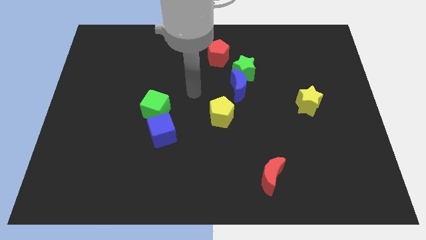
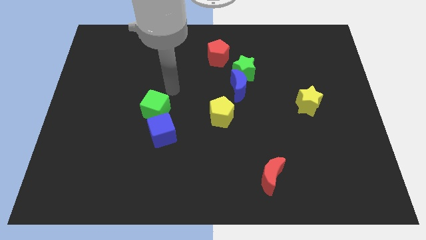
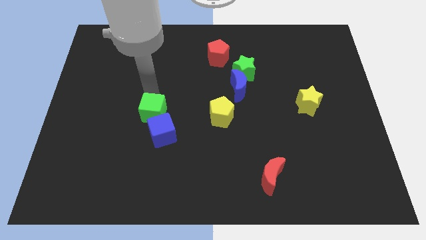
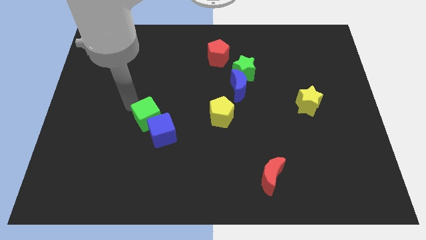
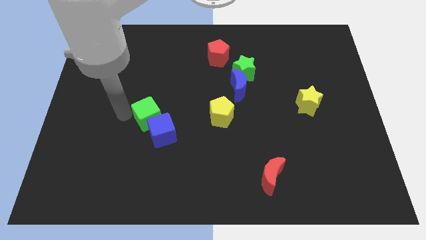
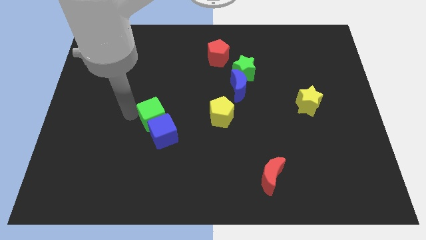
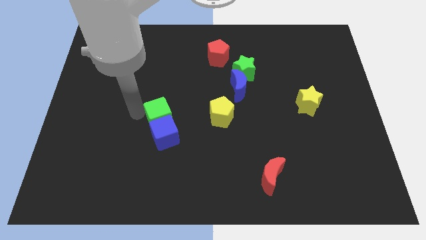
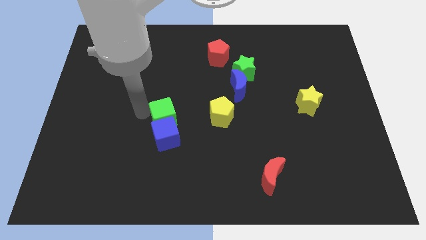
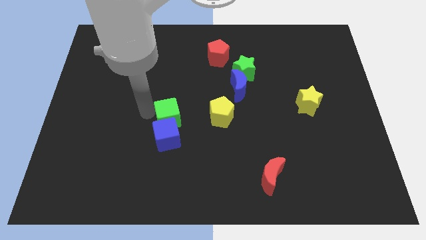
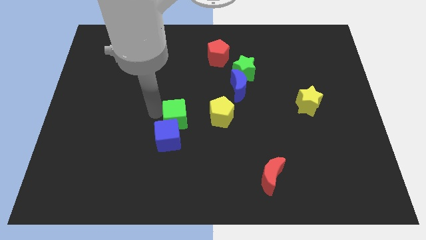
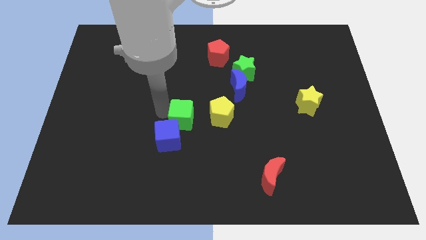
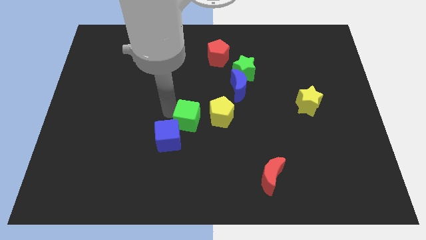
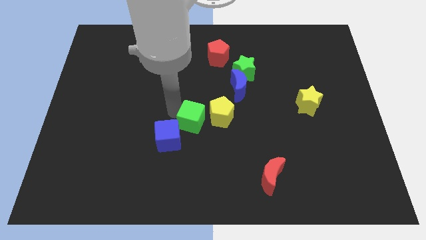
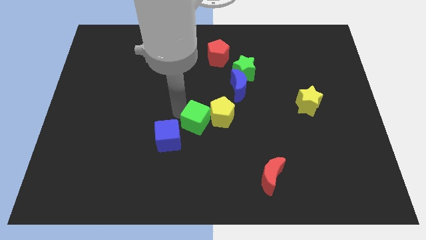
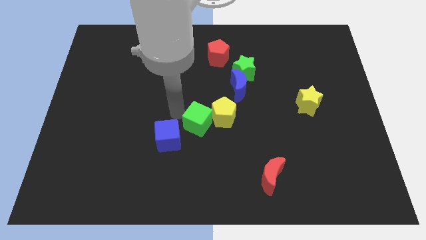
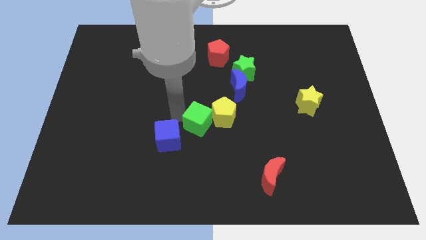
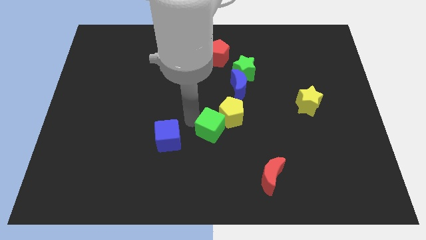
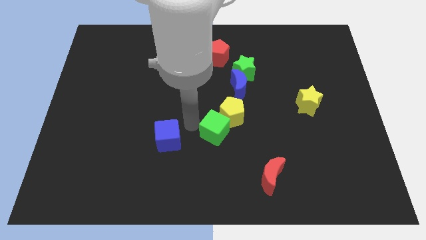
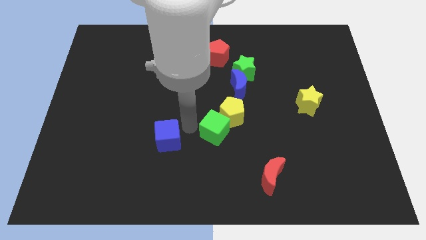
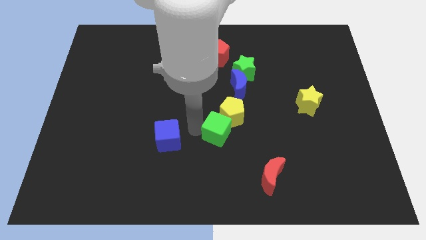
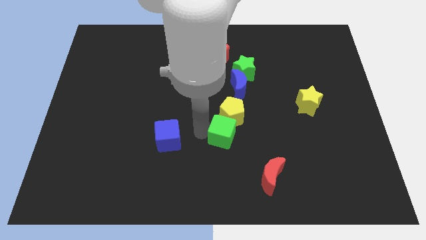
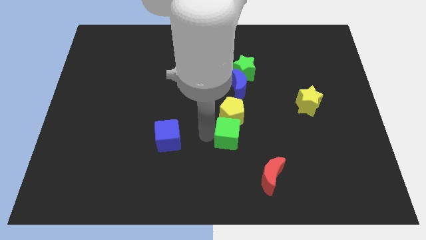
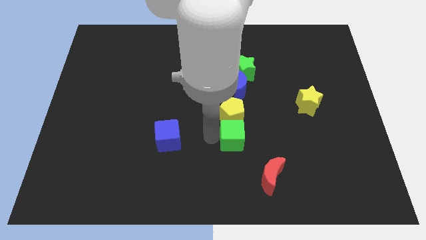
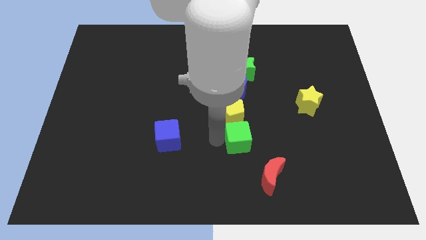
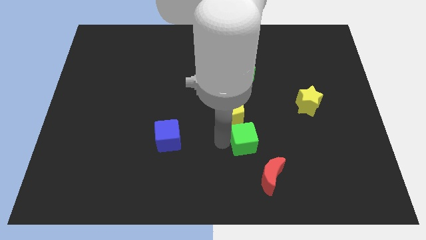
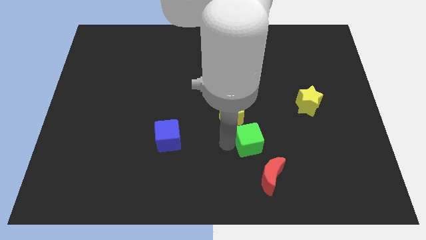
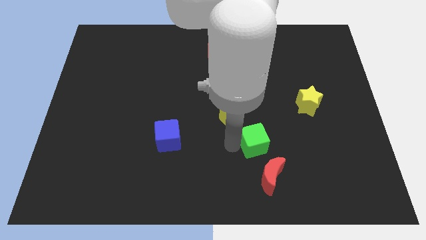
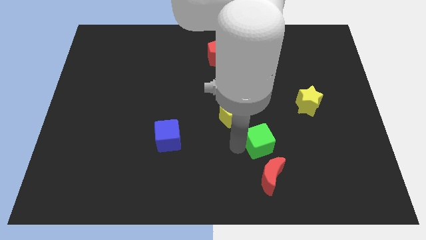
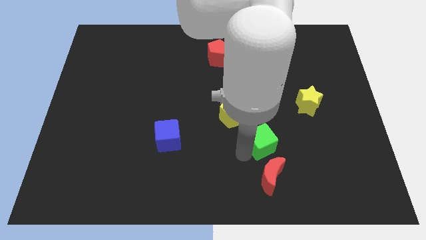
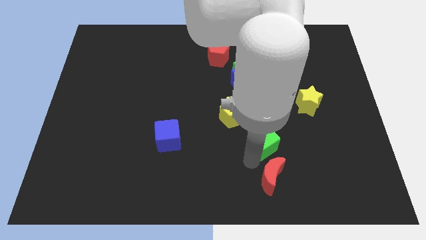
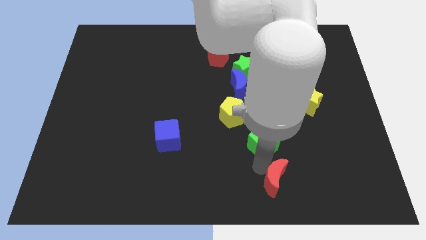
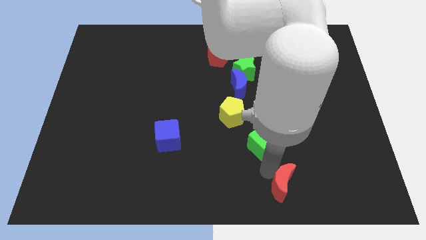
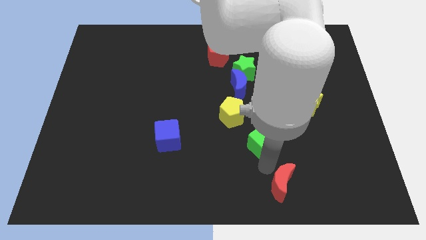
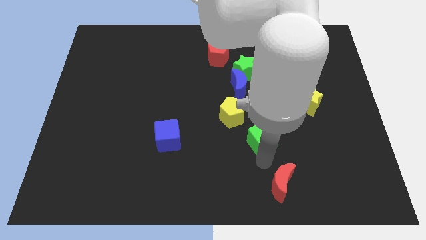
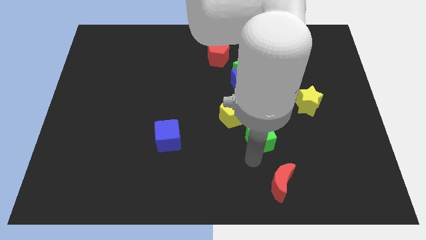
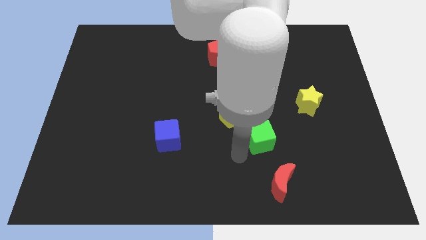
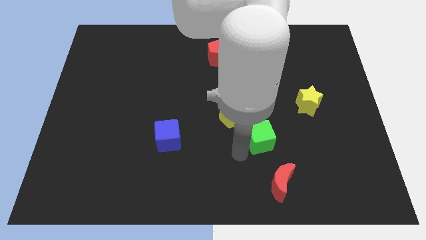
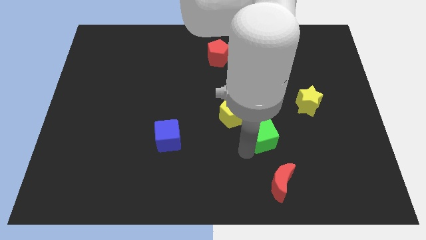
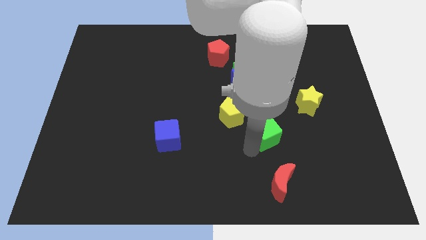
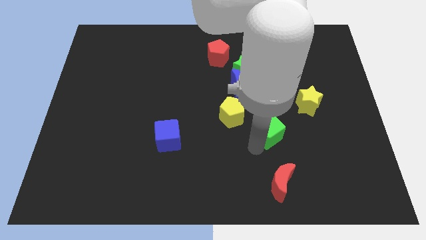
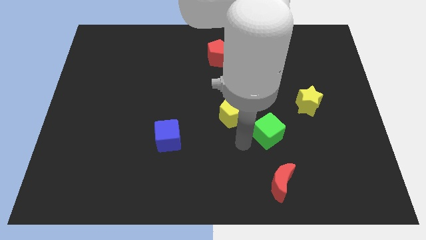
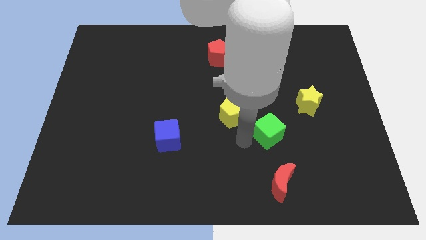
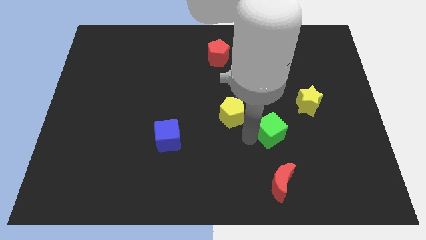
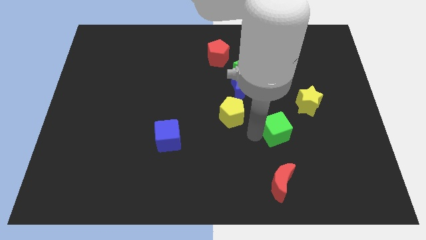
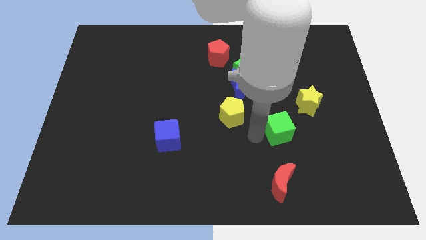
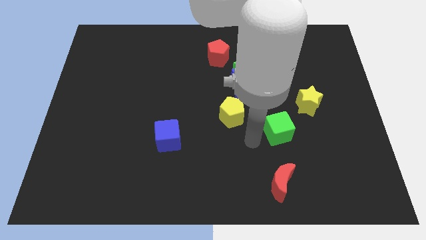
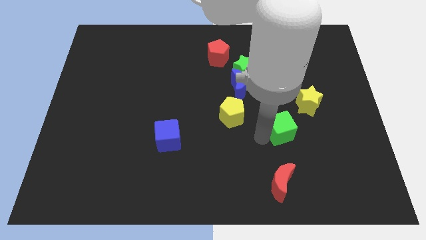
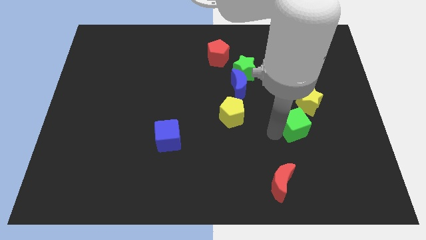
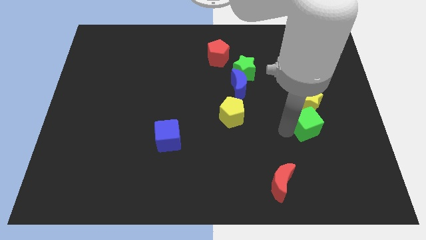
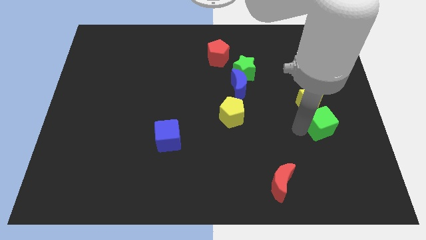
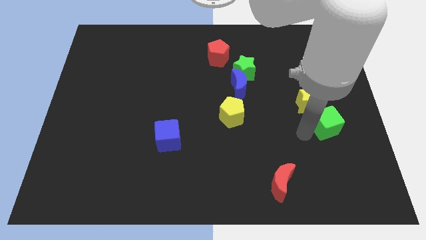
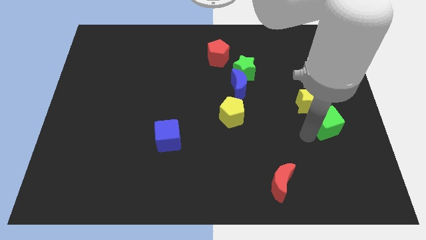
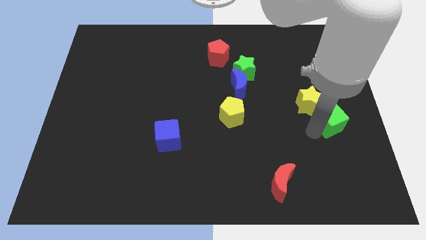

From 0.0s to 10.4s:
move the green cube to the right side of the board

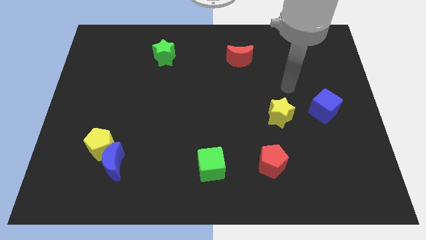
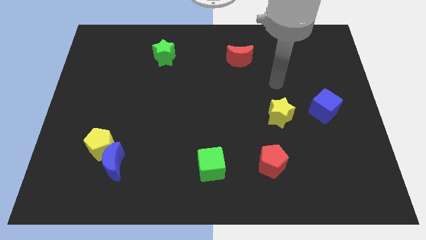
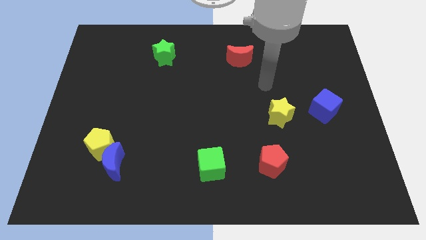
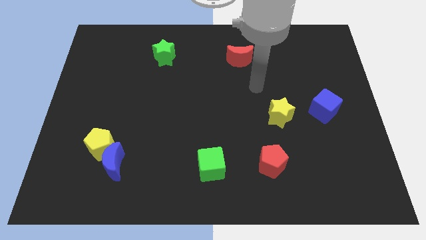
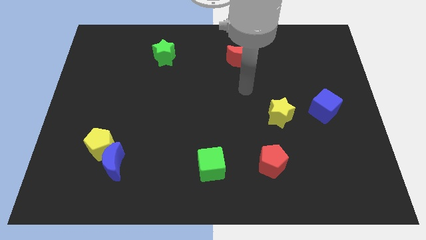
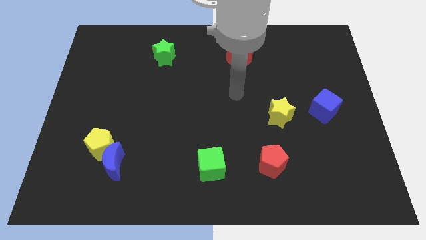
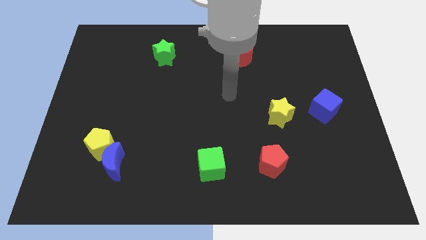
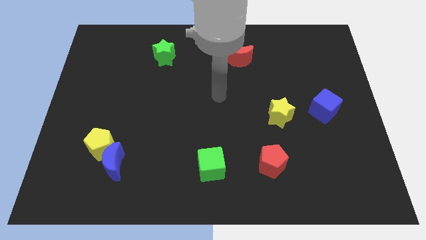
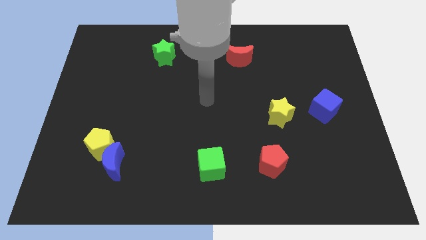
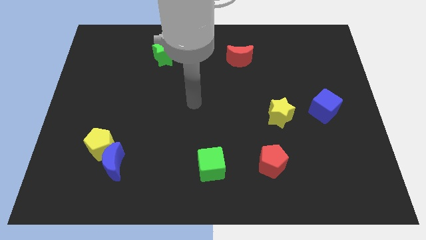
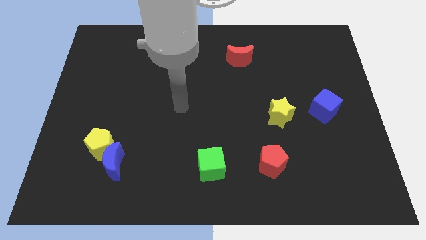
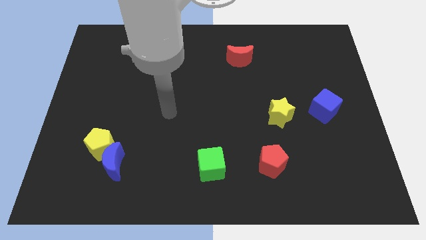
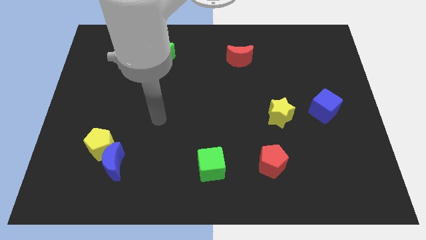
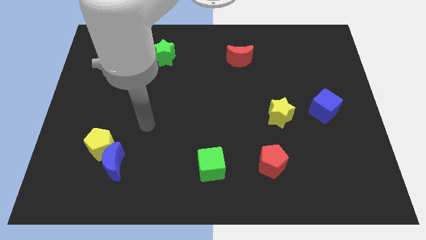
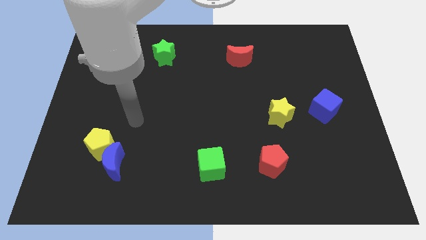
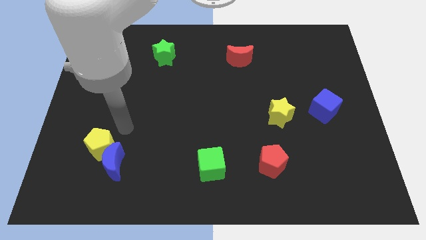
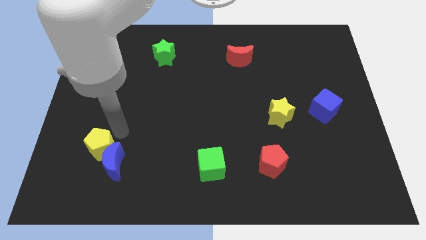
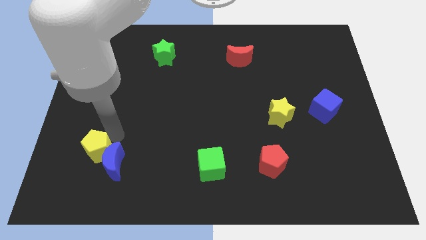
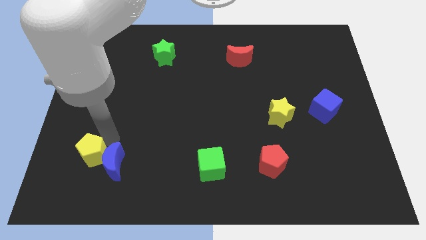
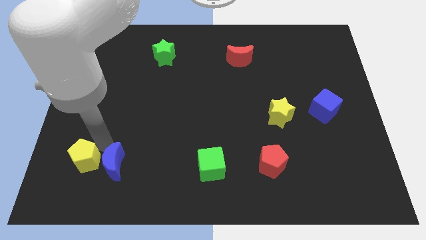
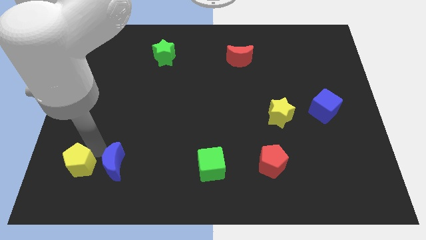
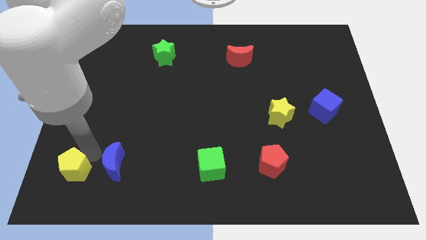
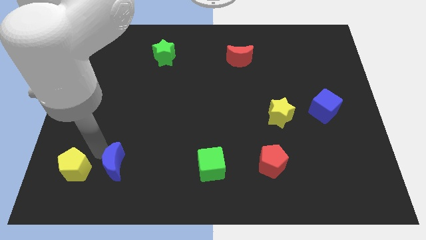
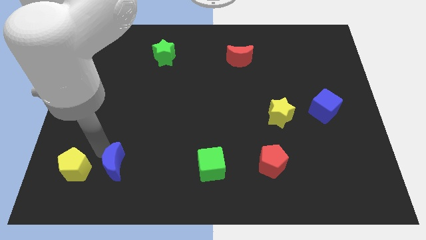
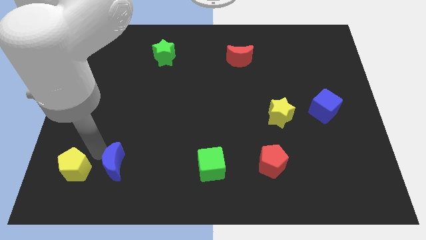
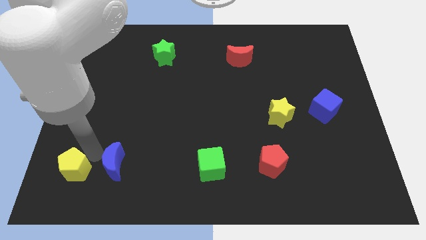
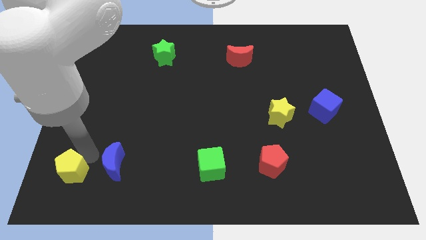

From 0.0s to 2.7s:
move the yellow pentagon to the lower left corner
